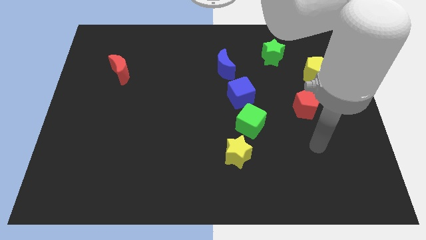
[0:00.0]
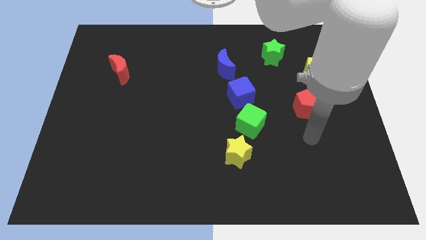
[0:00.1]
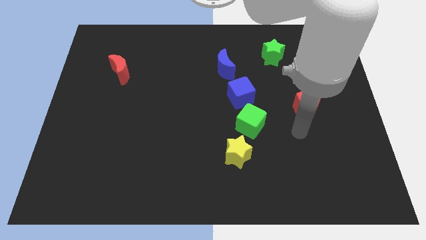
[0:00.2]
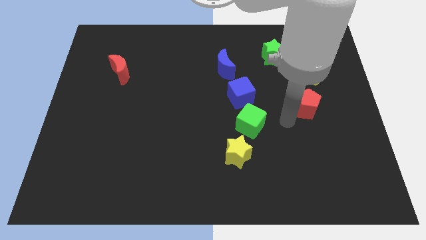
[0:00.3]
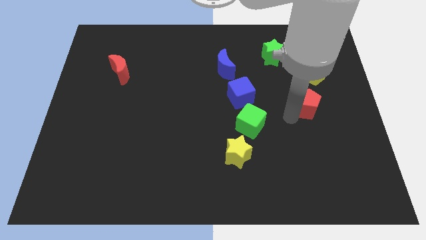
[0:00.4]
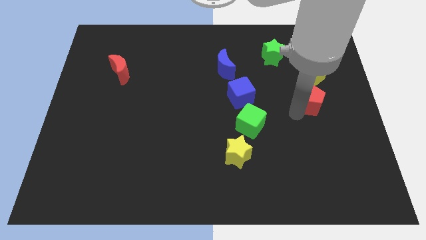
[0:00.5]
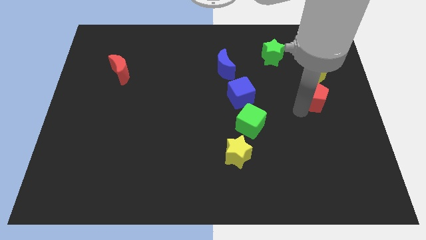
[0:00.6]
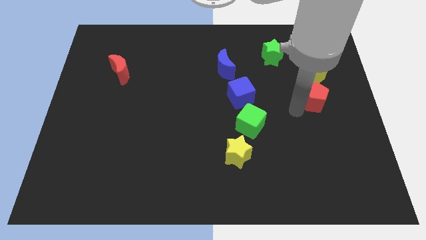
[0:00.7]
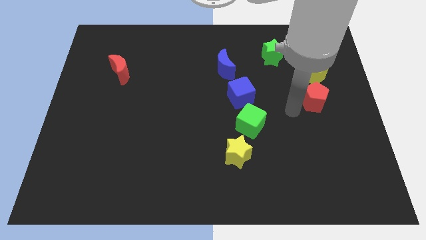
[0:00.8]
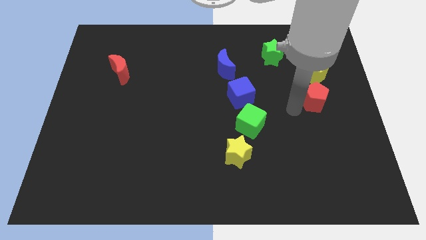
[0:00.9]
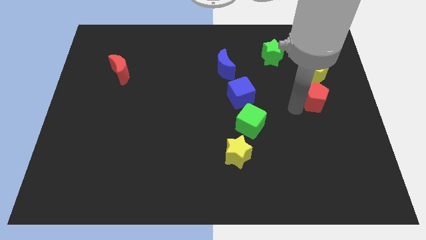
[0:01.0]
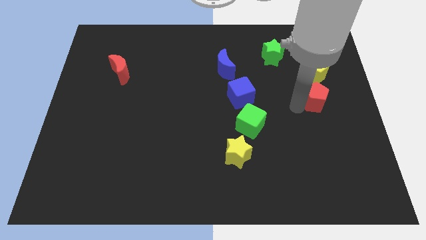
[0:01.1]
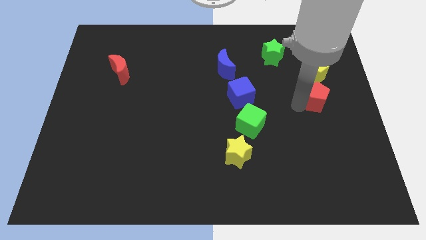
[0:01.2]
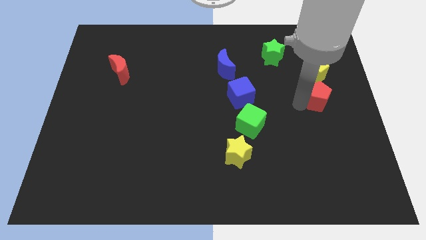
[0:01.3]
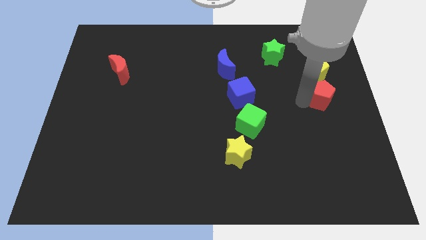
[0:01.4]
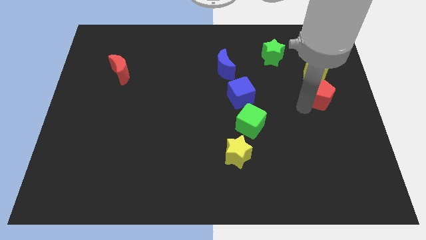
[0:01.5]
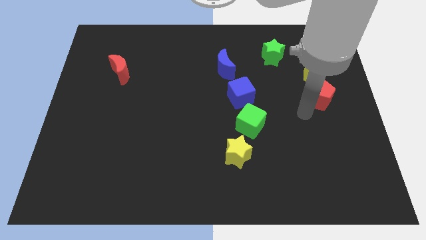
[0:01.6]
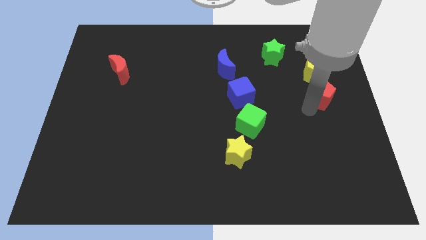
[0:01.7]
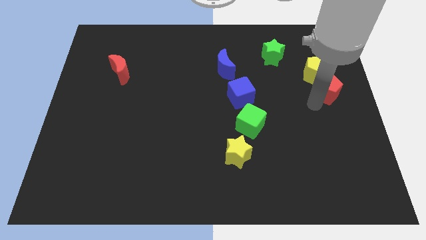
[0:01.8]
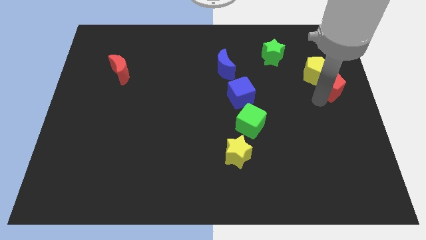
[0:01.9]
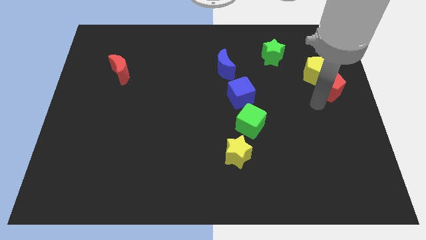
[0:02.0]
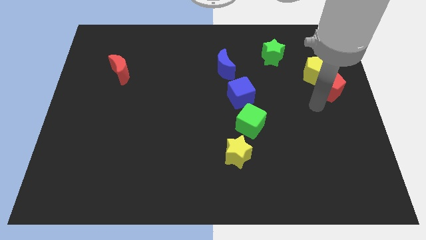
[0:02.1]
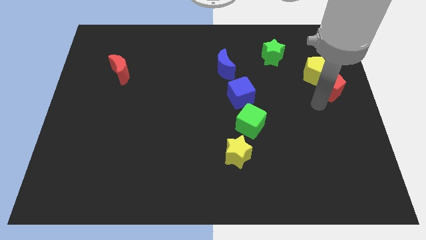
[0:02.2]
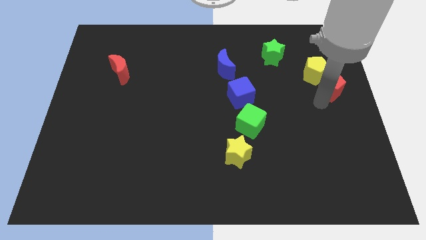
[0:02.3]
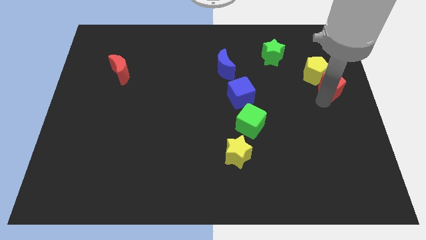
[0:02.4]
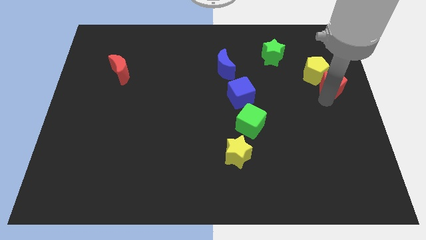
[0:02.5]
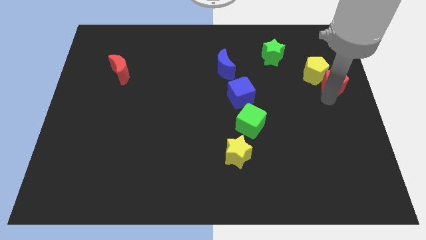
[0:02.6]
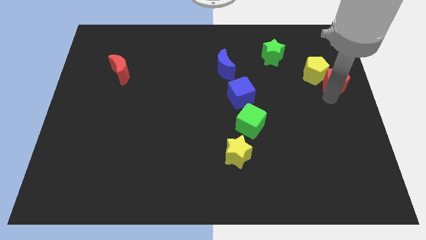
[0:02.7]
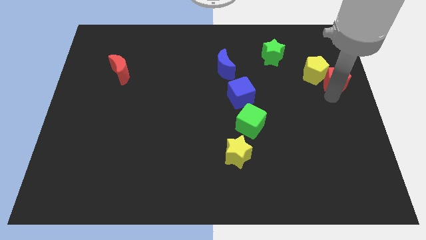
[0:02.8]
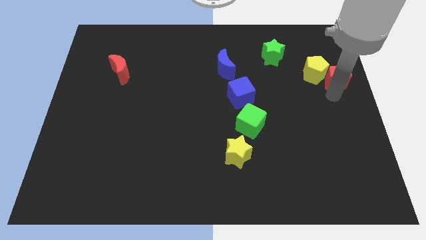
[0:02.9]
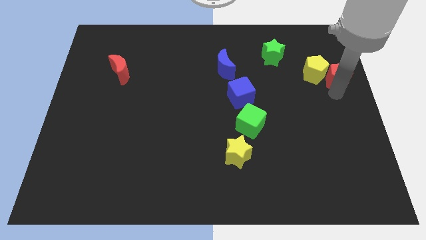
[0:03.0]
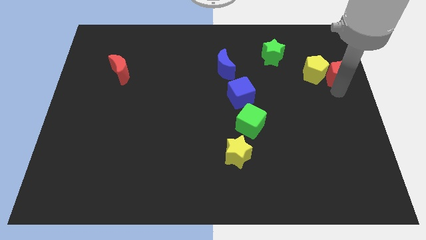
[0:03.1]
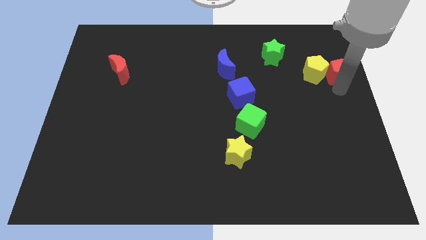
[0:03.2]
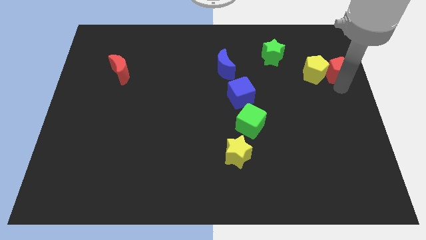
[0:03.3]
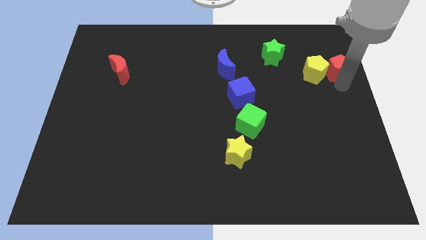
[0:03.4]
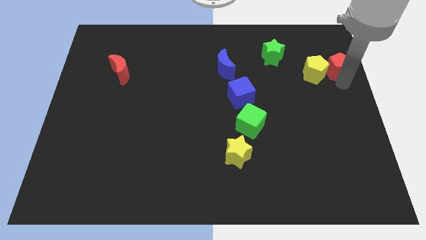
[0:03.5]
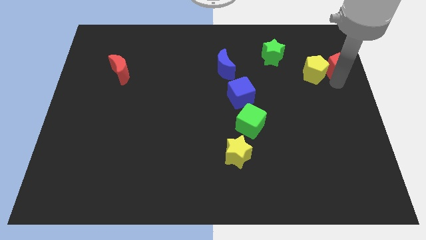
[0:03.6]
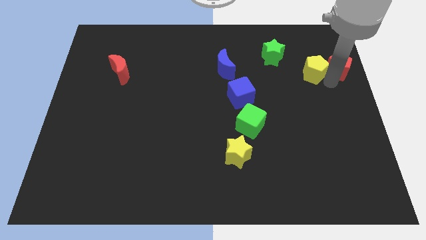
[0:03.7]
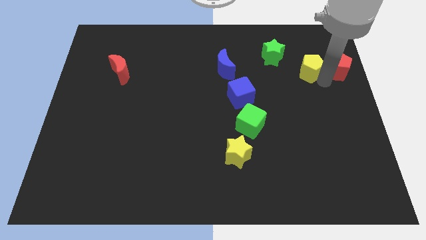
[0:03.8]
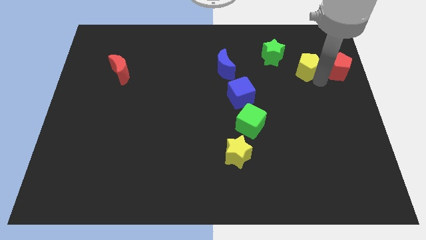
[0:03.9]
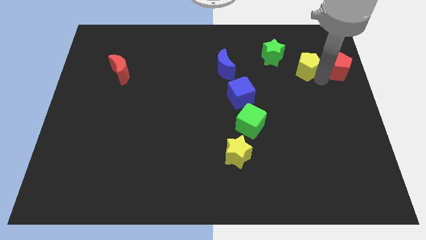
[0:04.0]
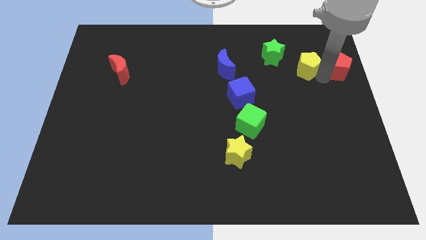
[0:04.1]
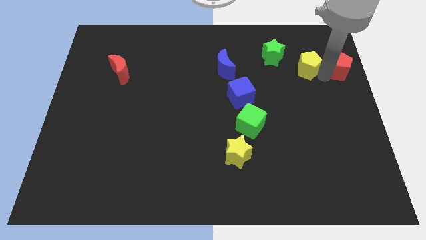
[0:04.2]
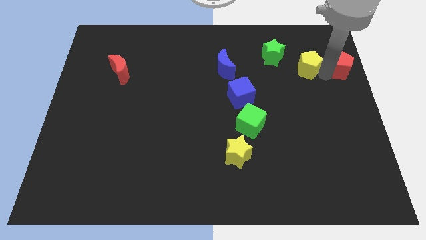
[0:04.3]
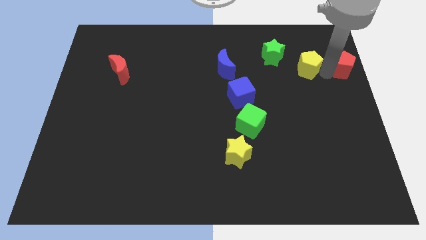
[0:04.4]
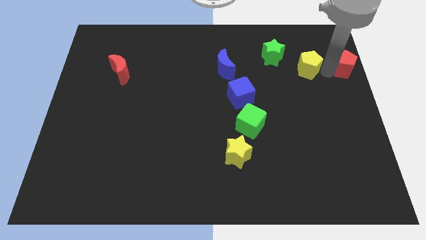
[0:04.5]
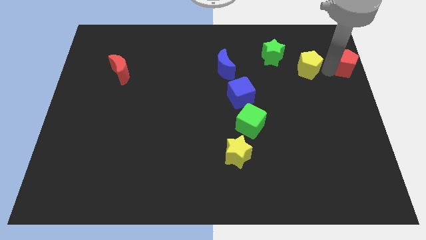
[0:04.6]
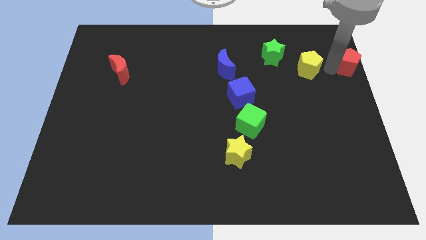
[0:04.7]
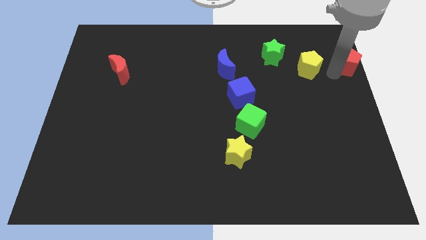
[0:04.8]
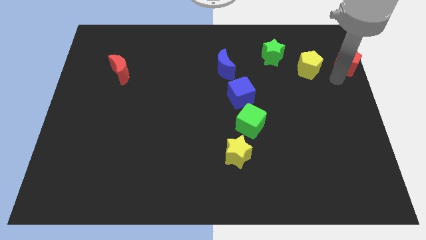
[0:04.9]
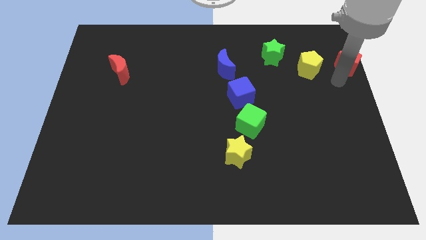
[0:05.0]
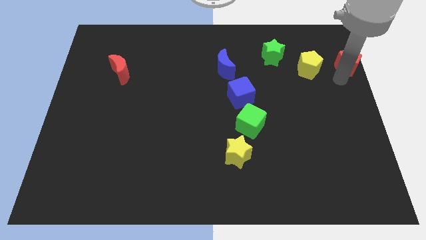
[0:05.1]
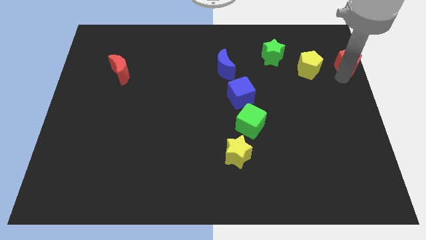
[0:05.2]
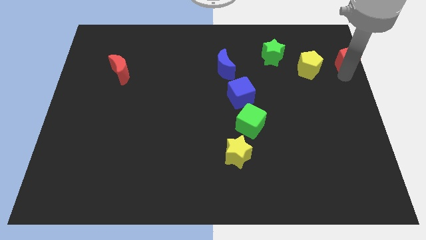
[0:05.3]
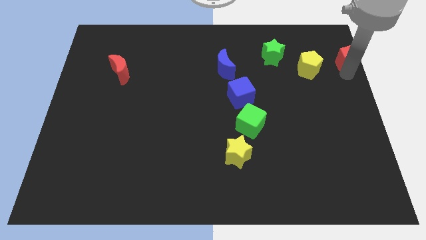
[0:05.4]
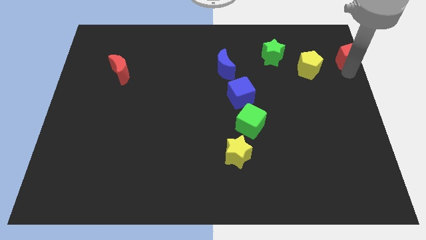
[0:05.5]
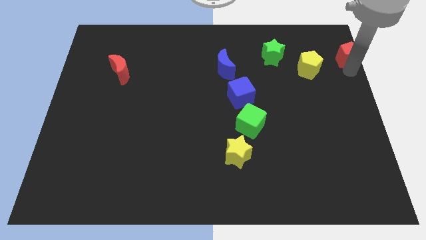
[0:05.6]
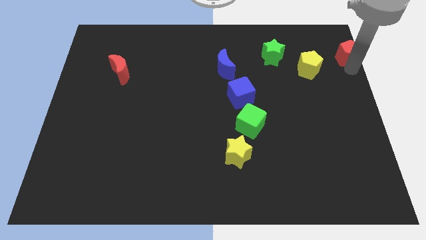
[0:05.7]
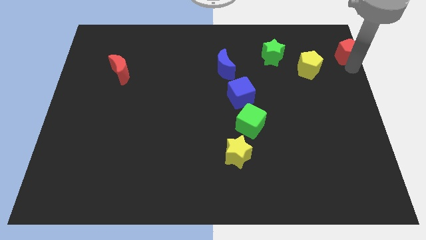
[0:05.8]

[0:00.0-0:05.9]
push the red pentagon to the upper right corner

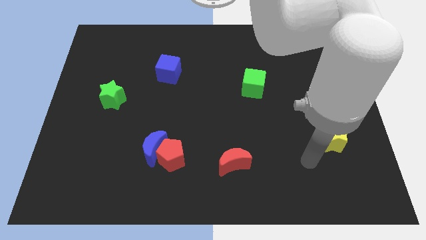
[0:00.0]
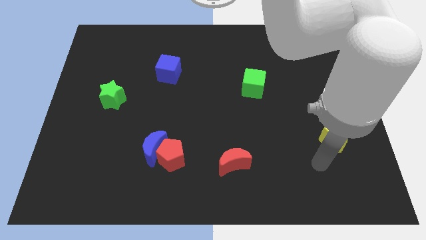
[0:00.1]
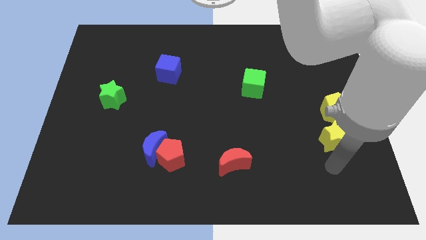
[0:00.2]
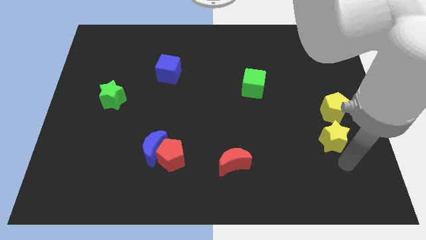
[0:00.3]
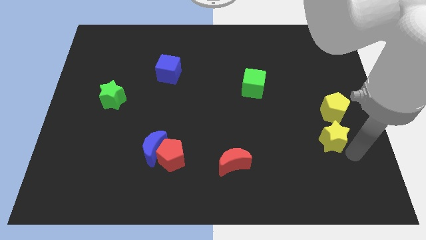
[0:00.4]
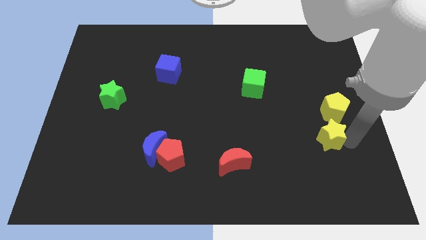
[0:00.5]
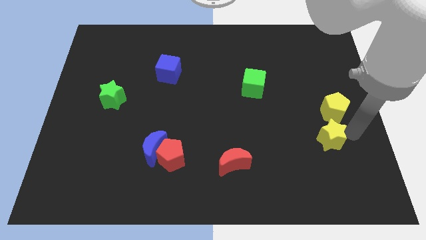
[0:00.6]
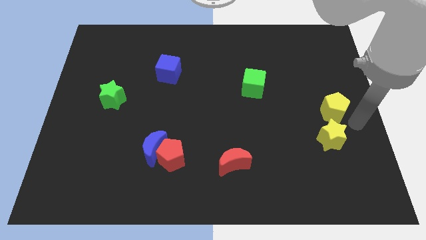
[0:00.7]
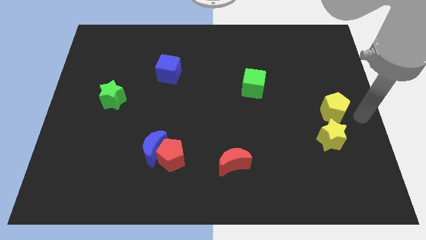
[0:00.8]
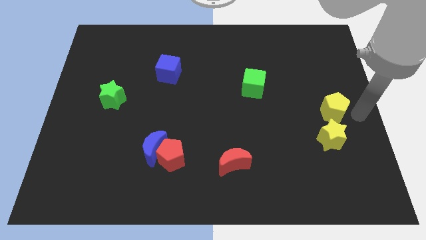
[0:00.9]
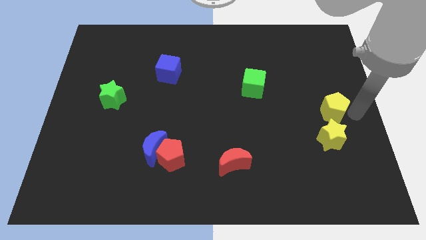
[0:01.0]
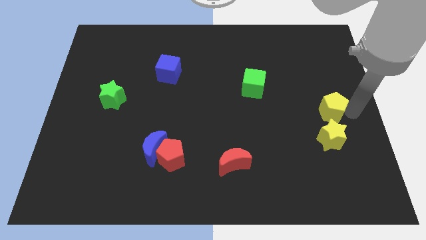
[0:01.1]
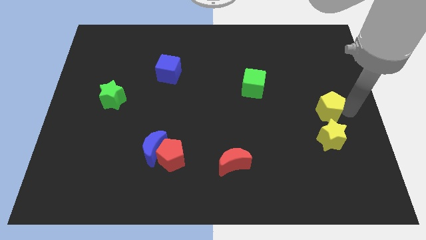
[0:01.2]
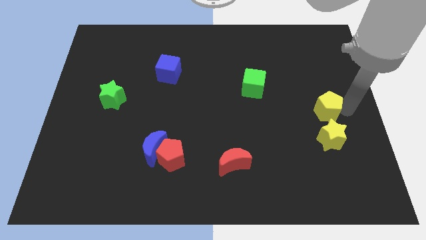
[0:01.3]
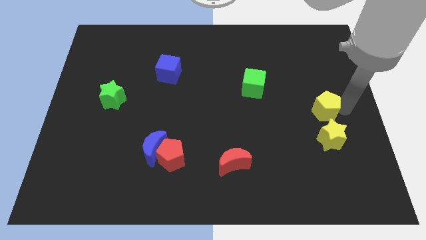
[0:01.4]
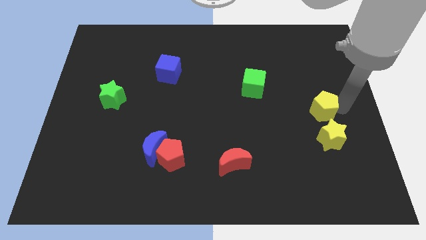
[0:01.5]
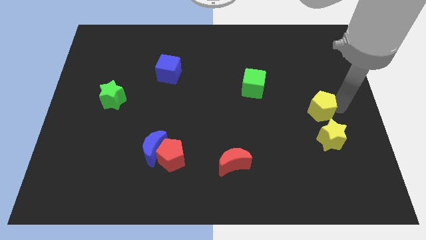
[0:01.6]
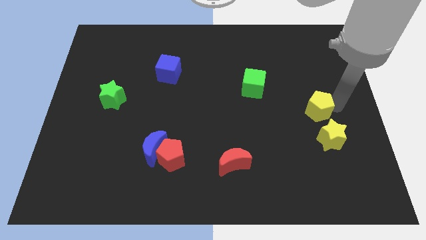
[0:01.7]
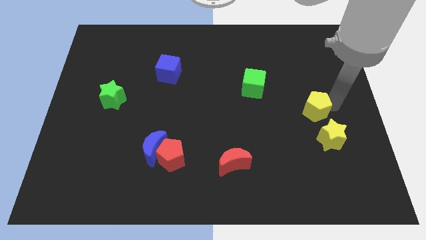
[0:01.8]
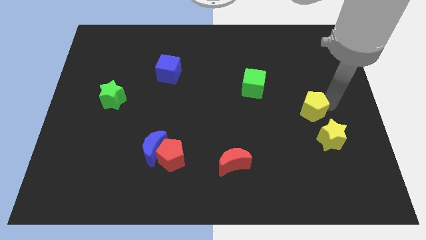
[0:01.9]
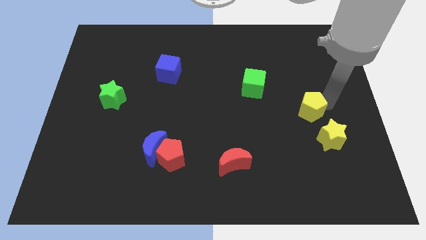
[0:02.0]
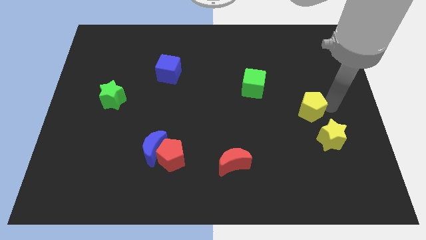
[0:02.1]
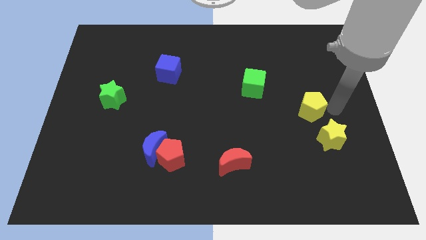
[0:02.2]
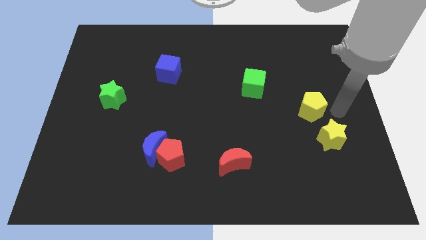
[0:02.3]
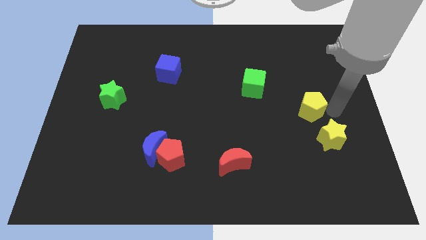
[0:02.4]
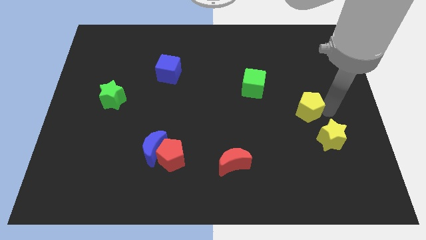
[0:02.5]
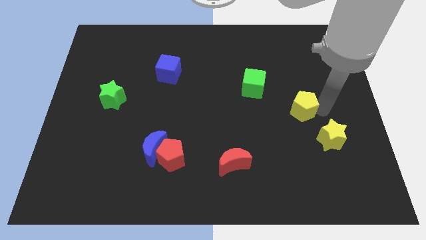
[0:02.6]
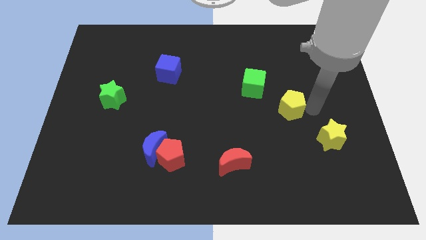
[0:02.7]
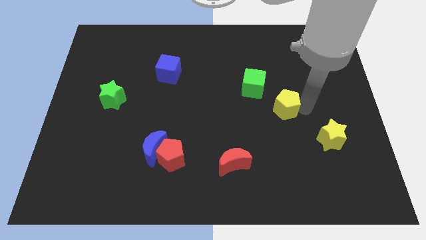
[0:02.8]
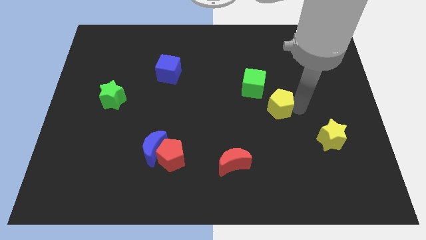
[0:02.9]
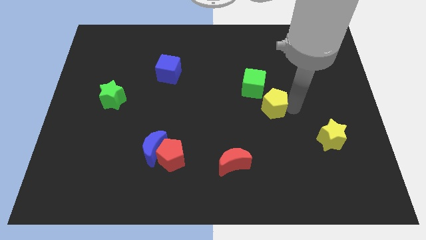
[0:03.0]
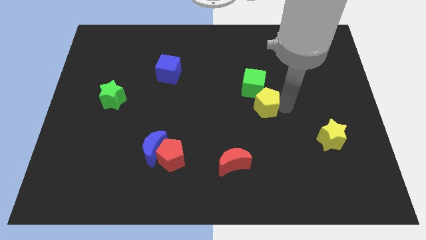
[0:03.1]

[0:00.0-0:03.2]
move the yellow pentagon to the middle of the board
